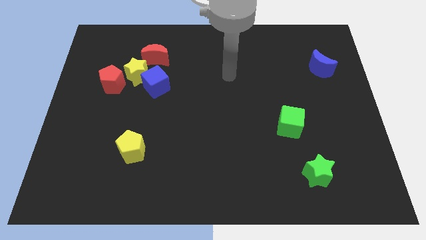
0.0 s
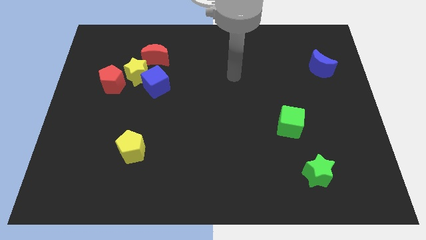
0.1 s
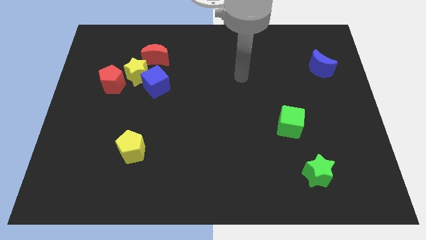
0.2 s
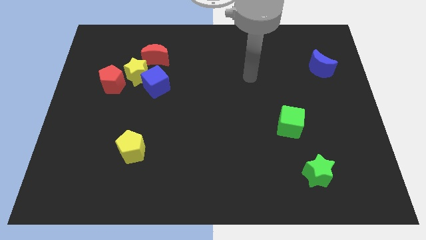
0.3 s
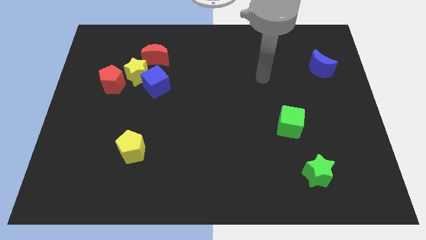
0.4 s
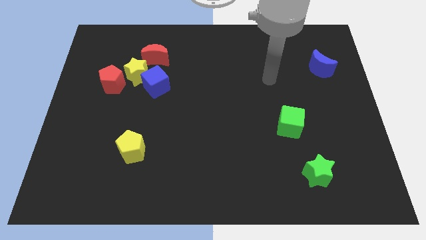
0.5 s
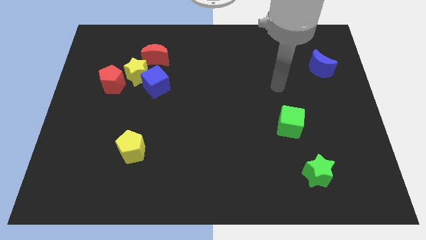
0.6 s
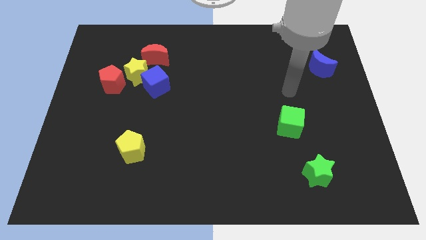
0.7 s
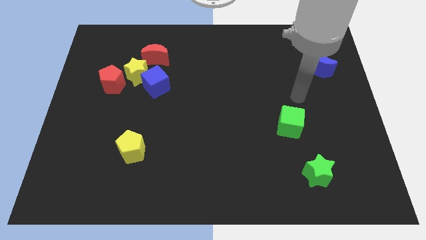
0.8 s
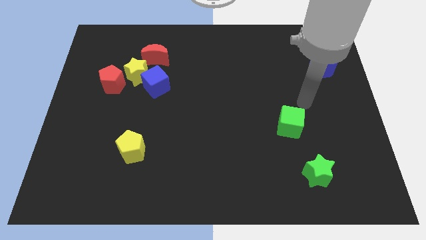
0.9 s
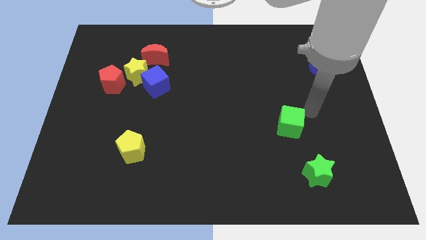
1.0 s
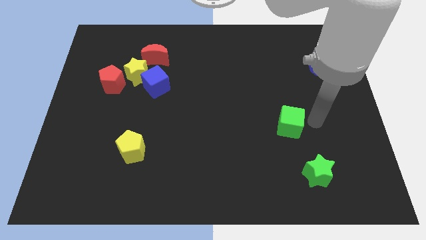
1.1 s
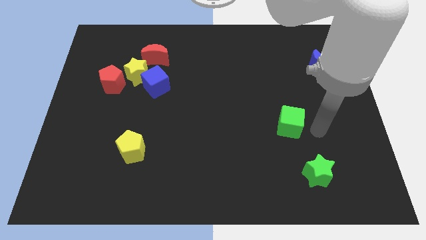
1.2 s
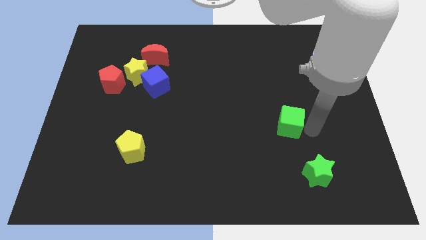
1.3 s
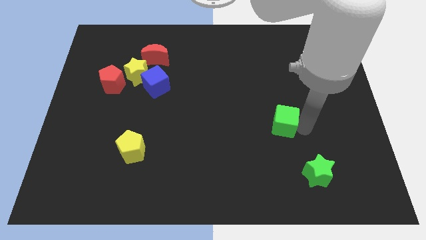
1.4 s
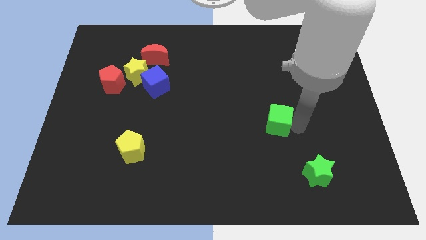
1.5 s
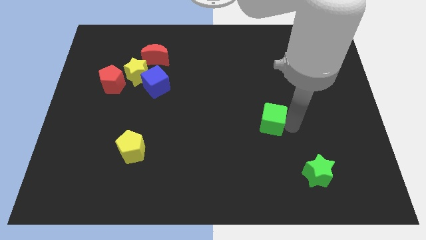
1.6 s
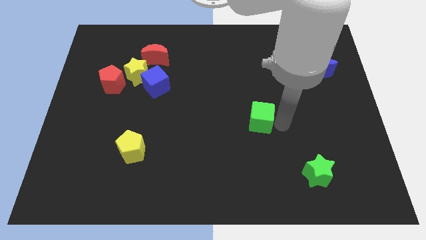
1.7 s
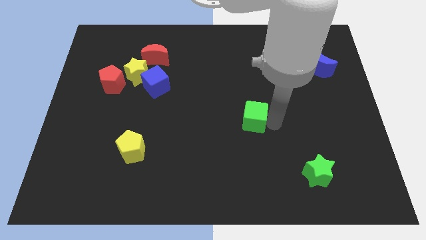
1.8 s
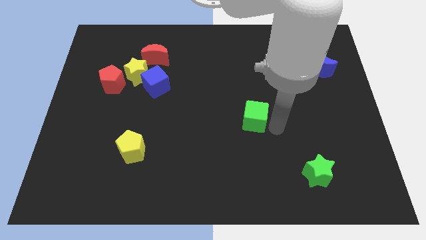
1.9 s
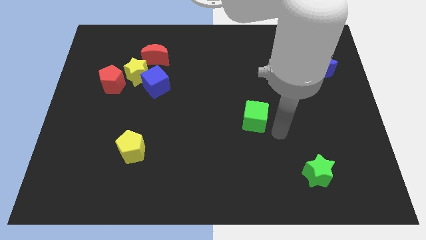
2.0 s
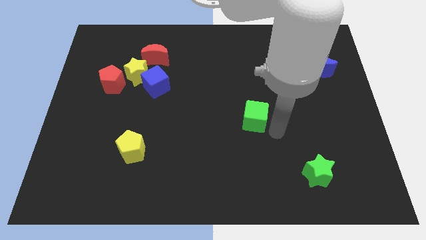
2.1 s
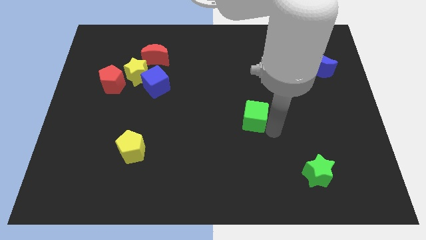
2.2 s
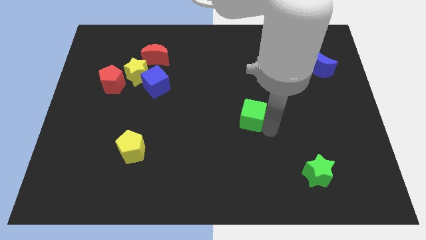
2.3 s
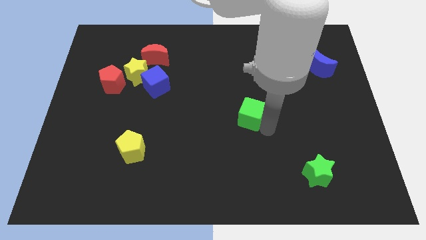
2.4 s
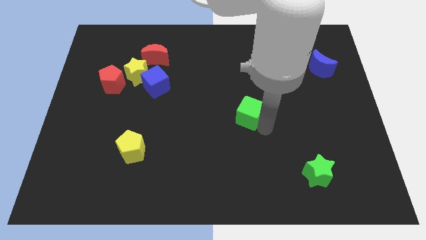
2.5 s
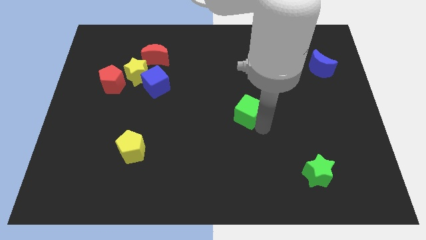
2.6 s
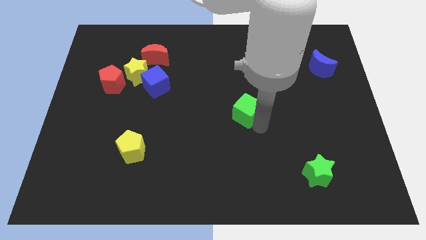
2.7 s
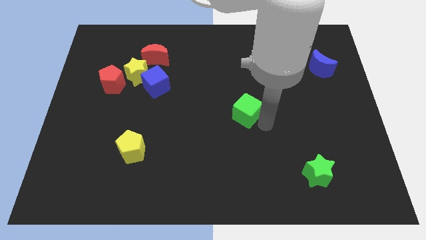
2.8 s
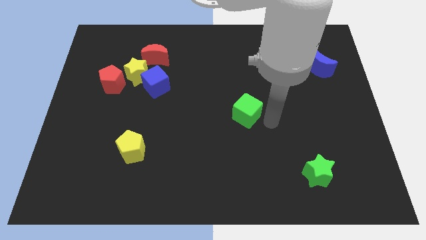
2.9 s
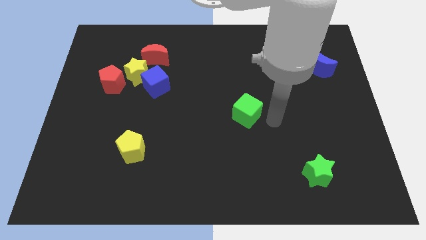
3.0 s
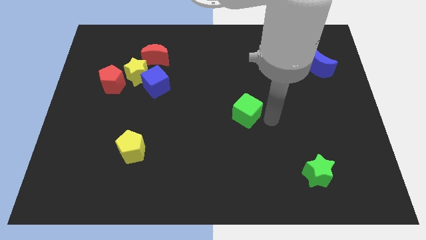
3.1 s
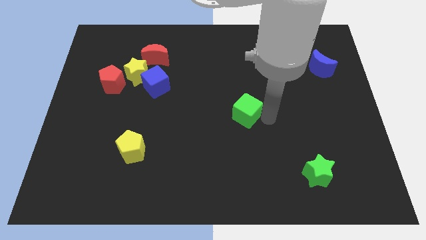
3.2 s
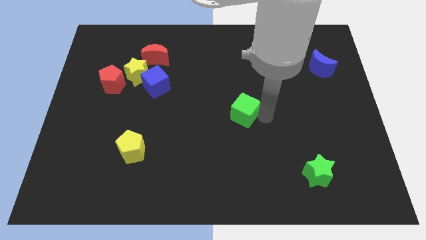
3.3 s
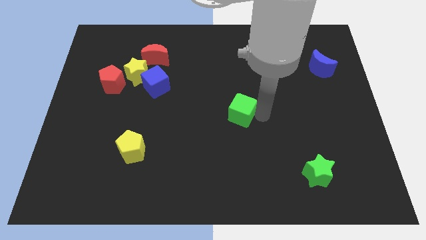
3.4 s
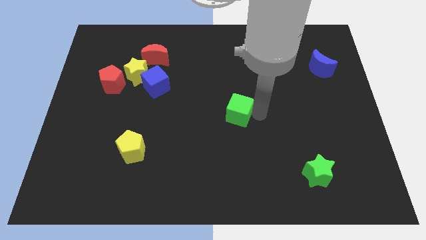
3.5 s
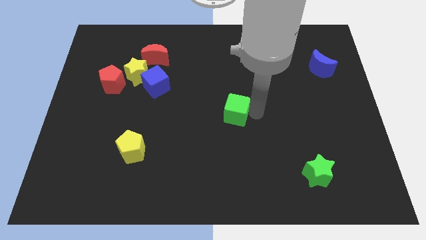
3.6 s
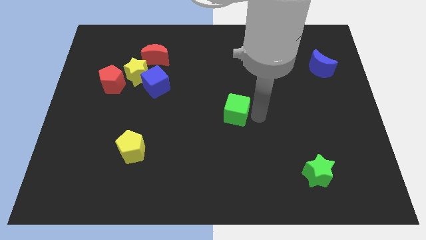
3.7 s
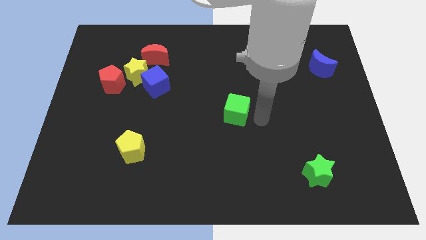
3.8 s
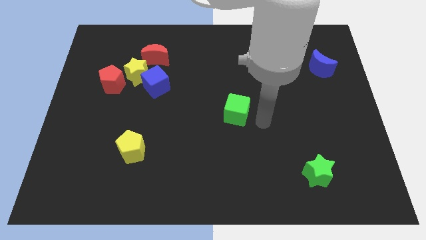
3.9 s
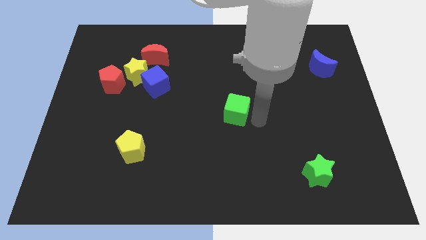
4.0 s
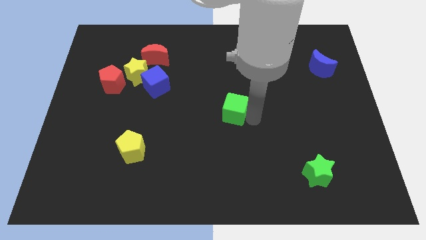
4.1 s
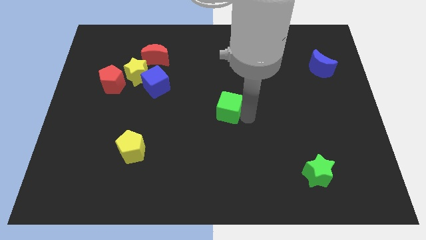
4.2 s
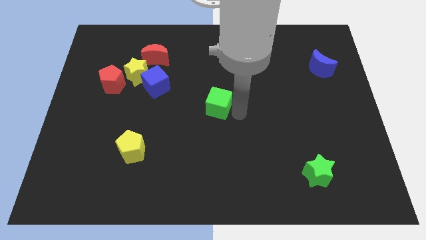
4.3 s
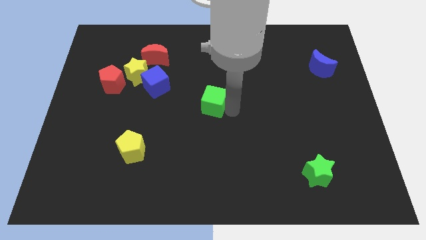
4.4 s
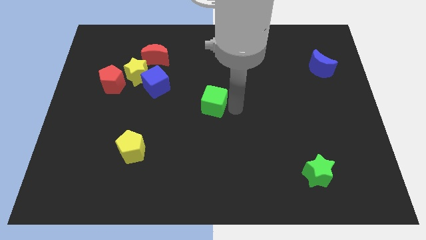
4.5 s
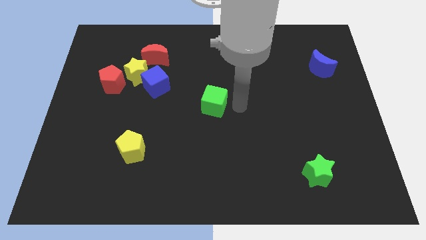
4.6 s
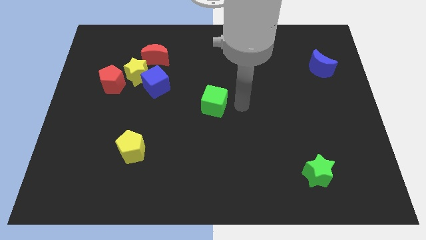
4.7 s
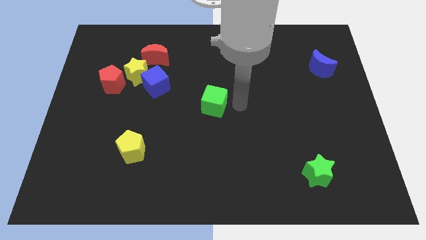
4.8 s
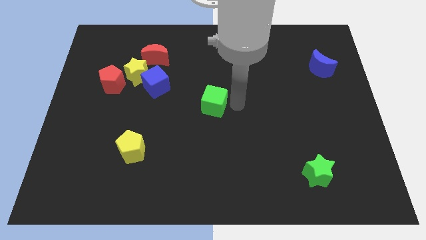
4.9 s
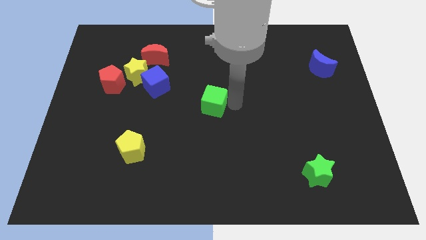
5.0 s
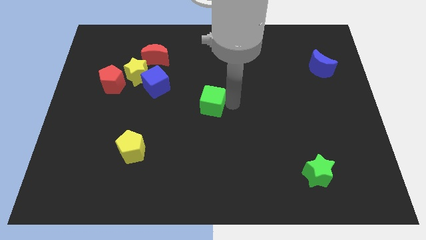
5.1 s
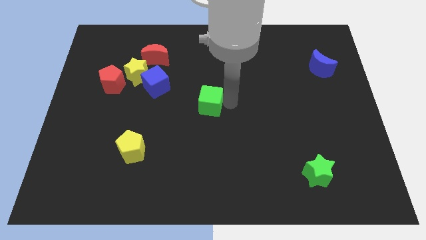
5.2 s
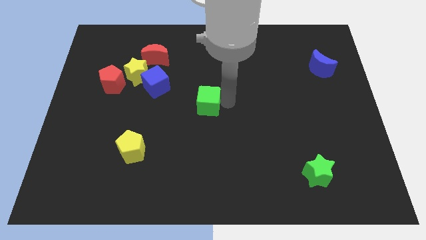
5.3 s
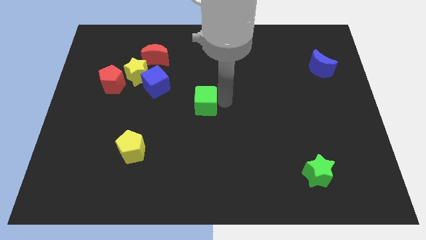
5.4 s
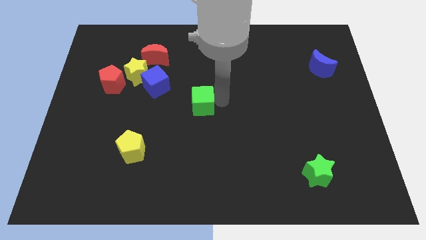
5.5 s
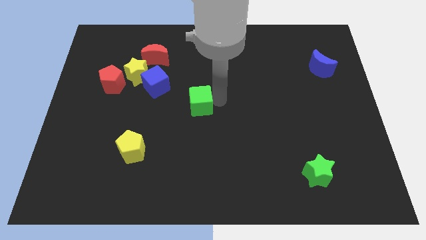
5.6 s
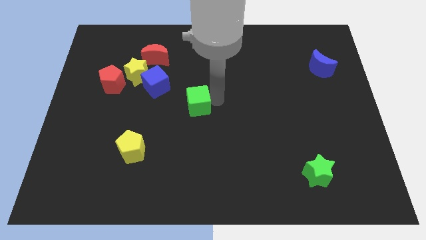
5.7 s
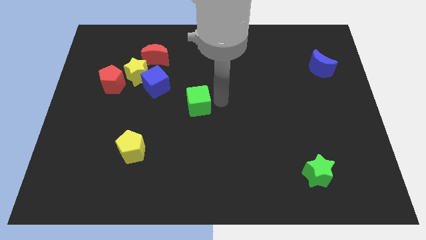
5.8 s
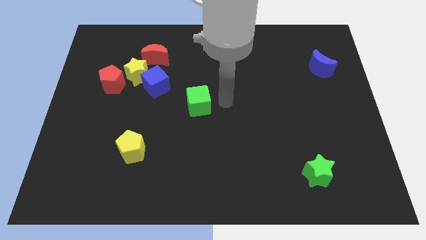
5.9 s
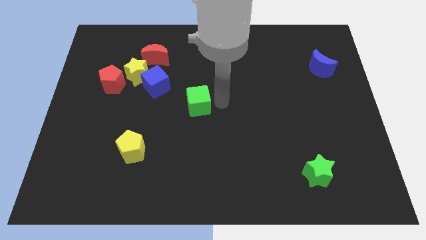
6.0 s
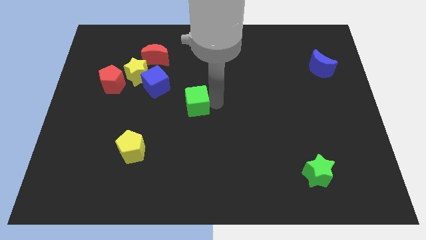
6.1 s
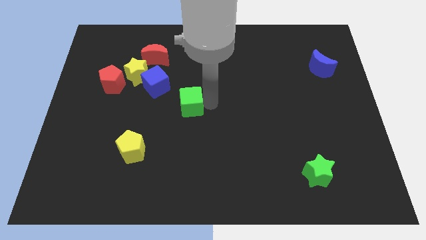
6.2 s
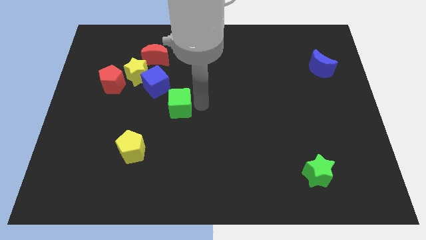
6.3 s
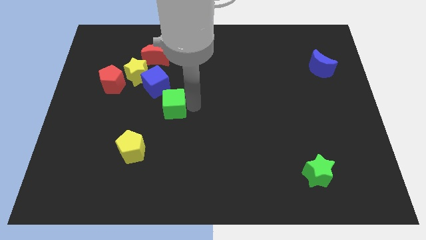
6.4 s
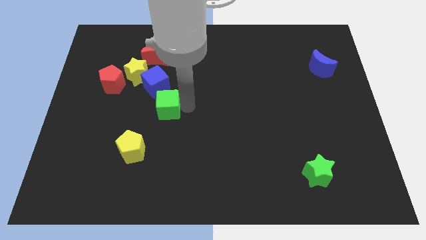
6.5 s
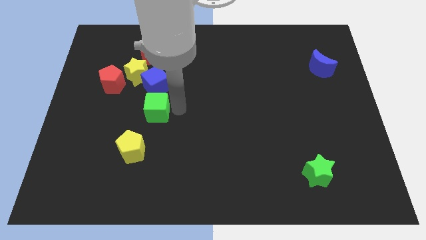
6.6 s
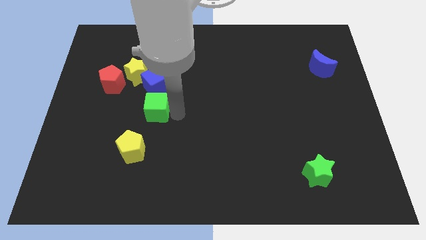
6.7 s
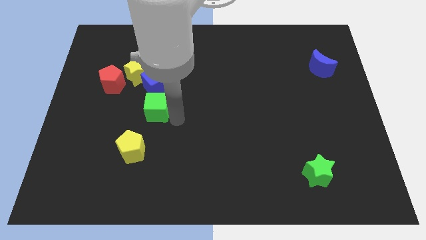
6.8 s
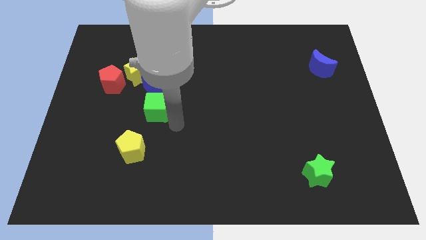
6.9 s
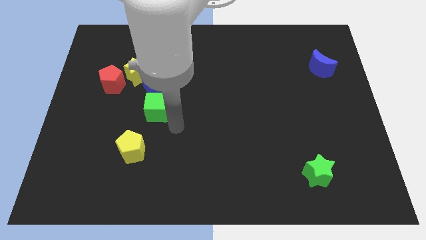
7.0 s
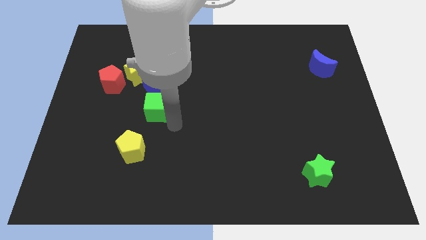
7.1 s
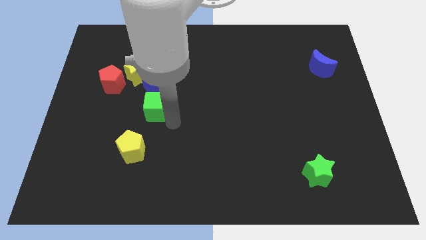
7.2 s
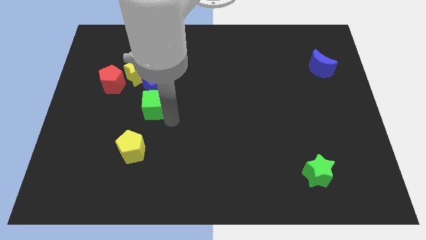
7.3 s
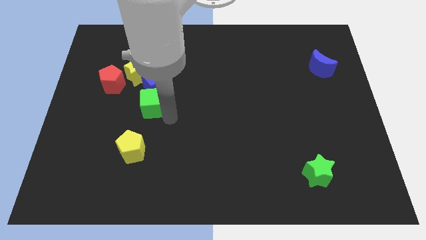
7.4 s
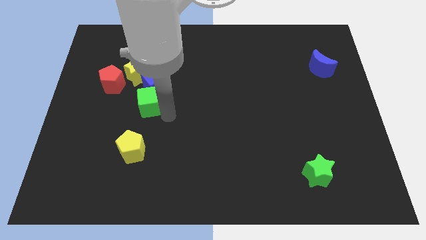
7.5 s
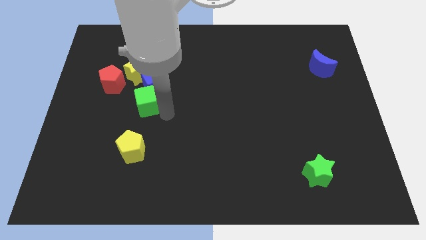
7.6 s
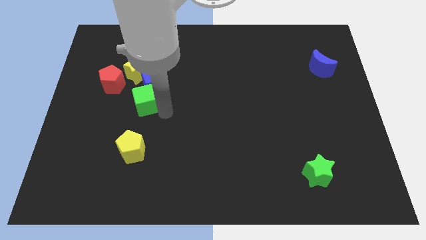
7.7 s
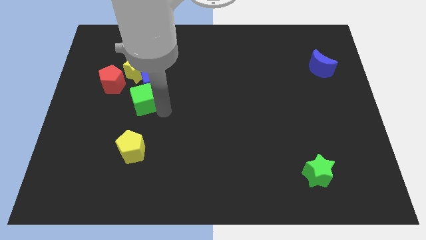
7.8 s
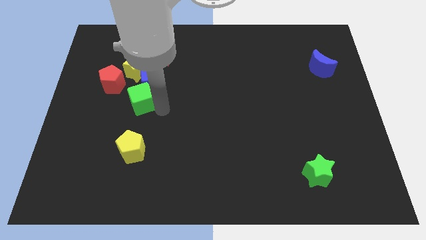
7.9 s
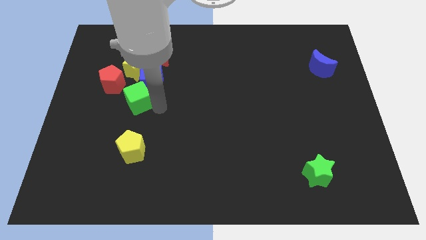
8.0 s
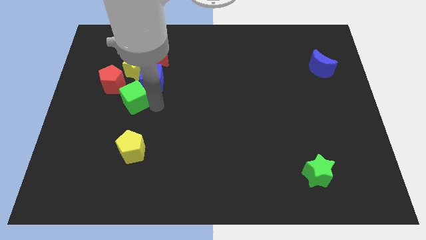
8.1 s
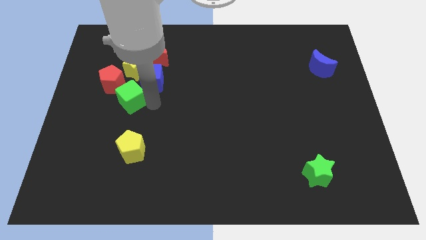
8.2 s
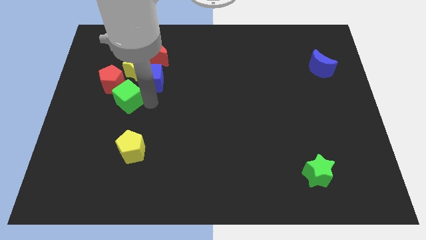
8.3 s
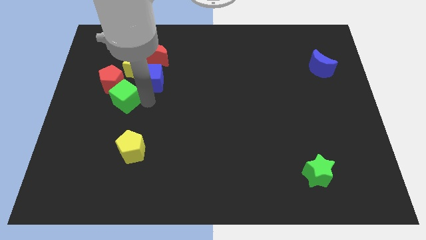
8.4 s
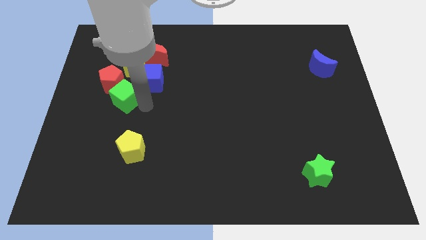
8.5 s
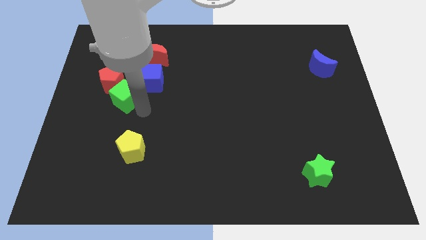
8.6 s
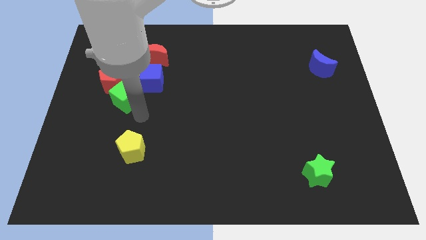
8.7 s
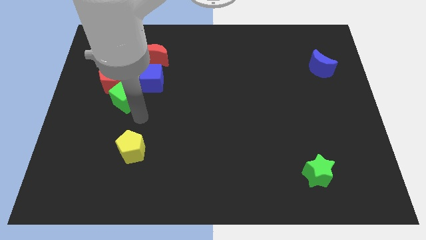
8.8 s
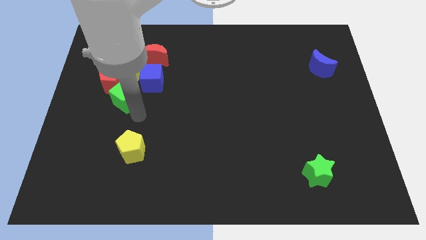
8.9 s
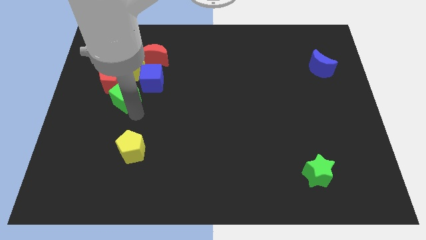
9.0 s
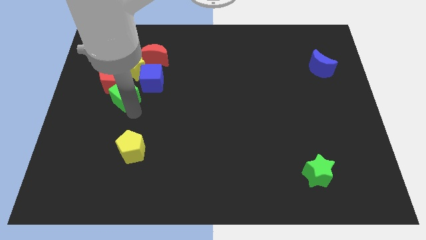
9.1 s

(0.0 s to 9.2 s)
push the green cube towards the red pentagon
